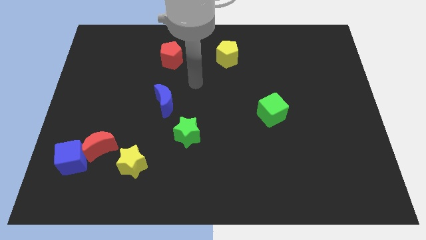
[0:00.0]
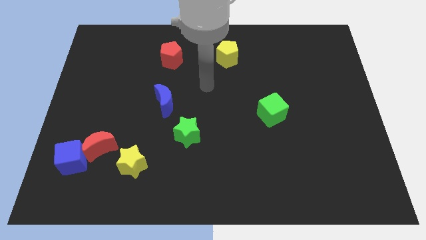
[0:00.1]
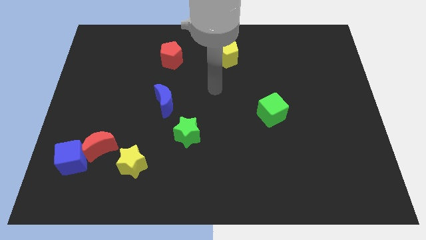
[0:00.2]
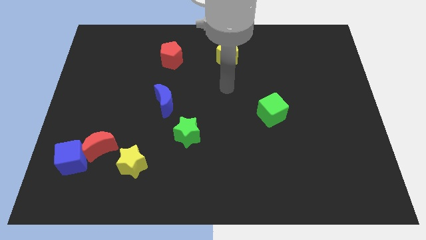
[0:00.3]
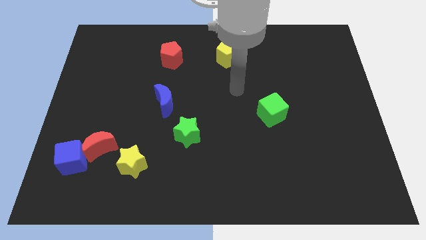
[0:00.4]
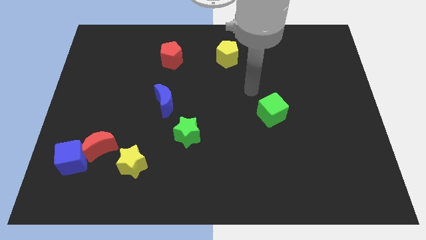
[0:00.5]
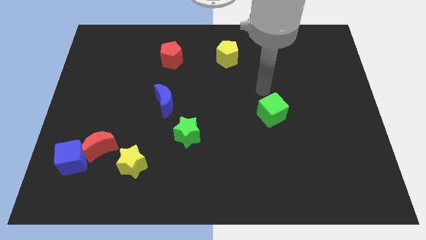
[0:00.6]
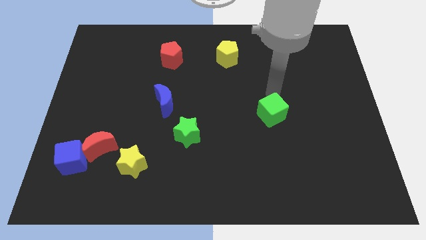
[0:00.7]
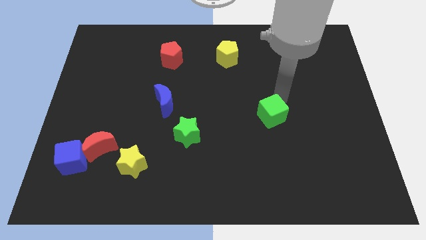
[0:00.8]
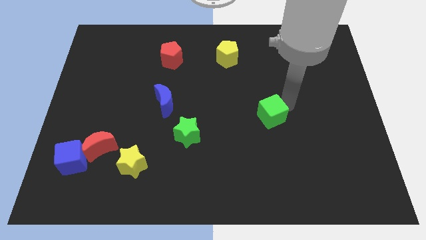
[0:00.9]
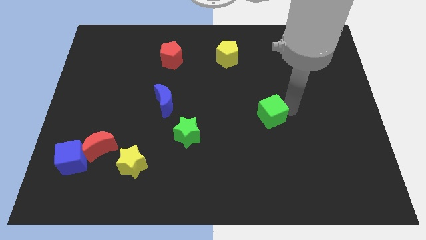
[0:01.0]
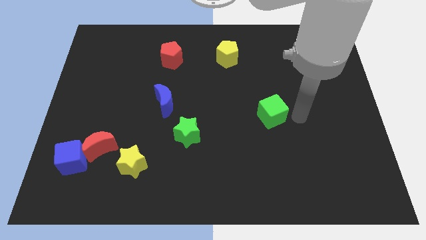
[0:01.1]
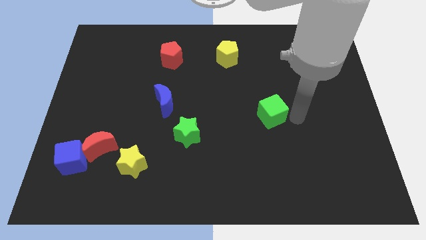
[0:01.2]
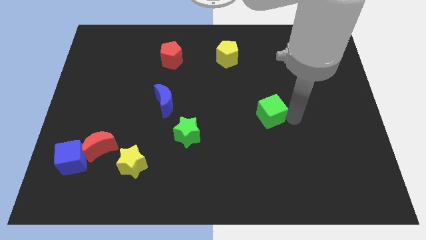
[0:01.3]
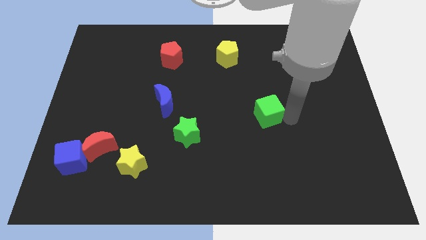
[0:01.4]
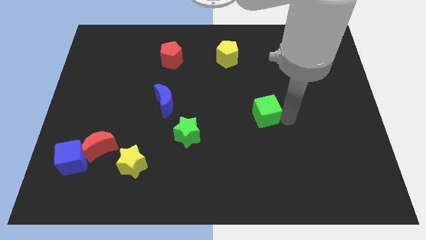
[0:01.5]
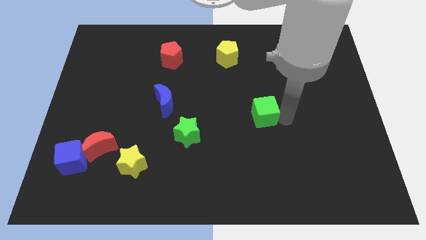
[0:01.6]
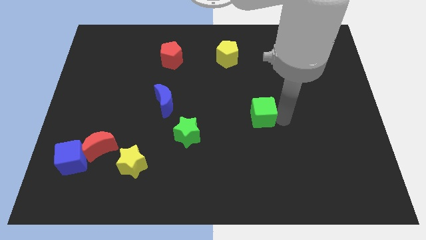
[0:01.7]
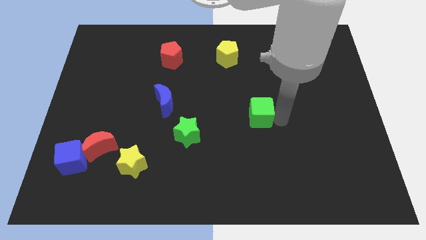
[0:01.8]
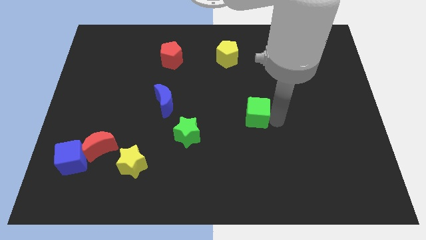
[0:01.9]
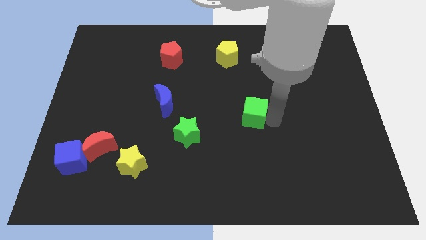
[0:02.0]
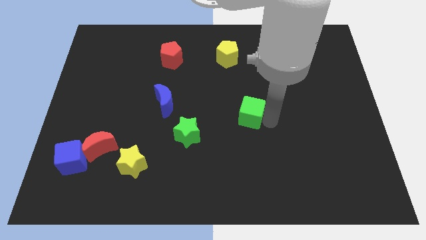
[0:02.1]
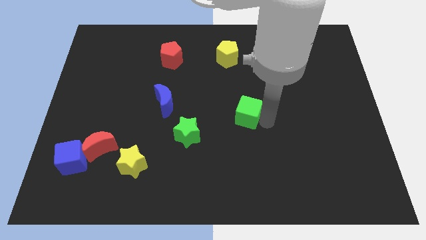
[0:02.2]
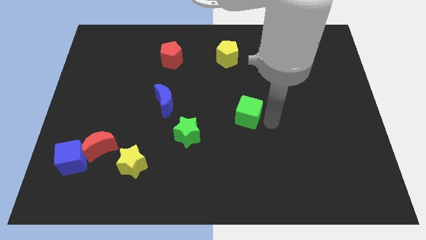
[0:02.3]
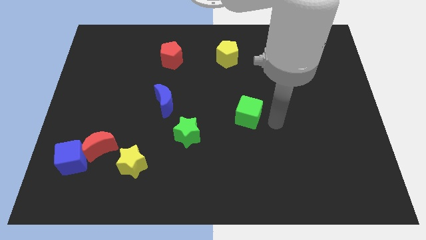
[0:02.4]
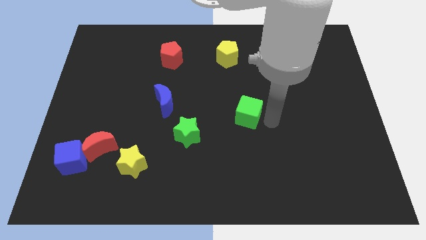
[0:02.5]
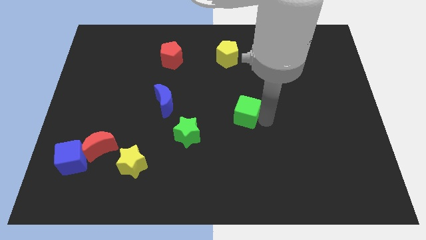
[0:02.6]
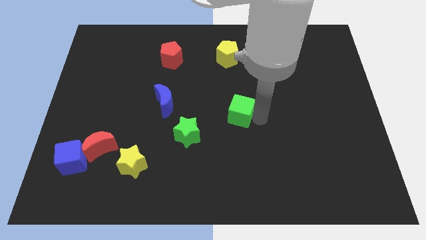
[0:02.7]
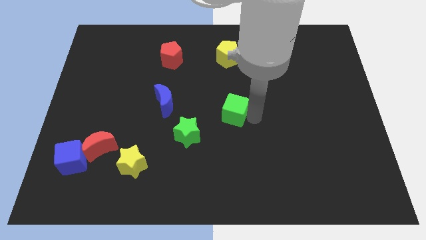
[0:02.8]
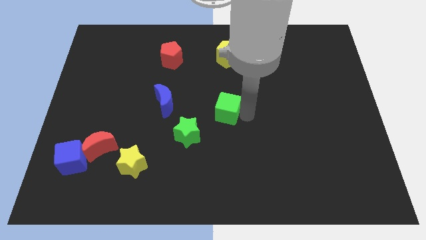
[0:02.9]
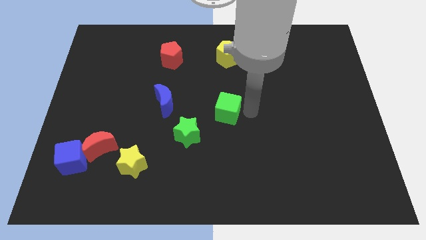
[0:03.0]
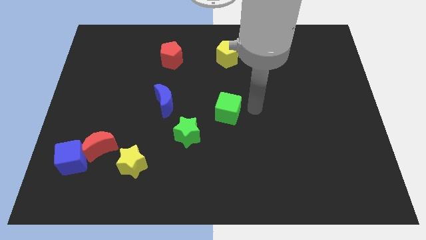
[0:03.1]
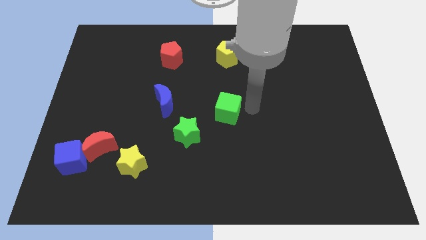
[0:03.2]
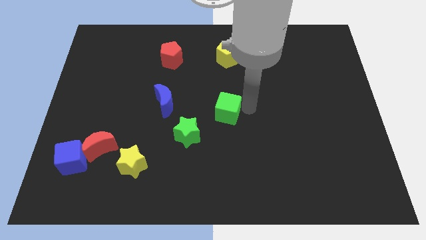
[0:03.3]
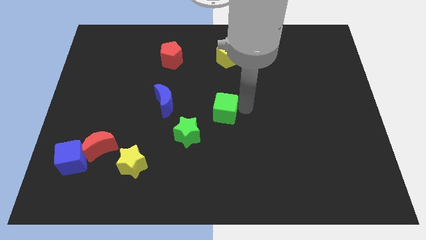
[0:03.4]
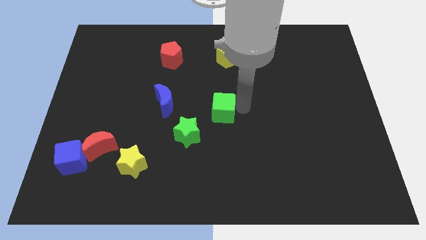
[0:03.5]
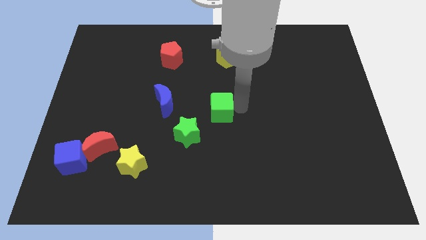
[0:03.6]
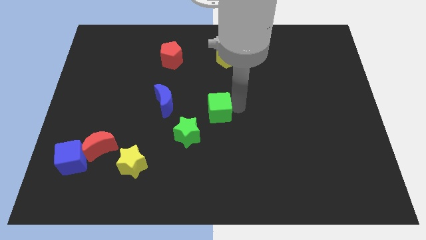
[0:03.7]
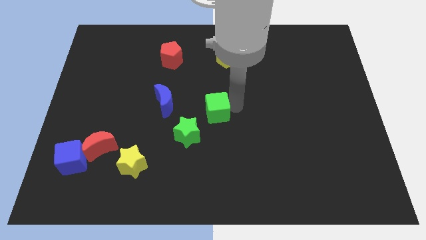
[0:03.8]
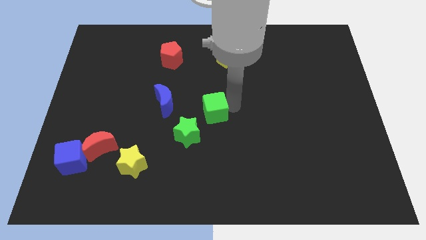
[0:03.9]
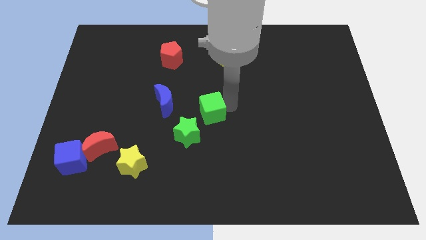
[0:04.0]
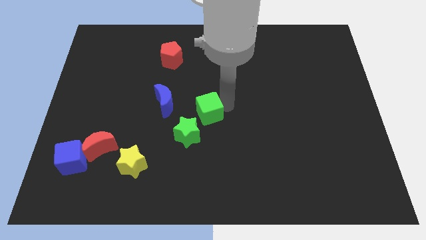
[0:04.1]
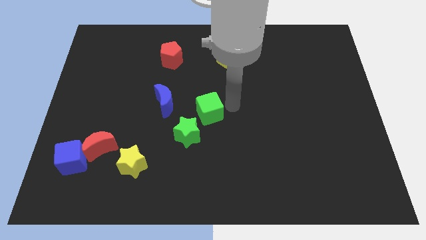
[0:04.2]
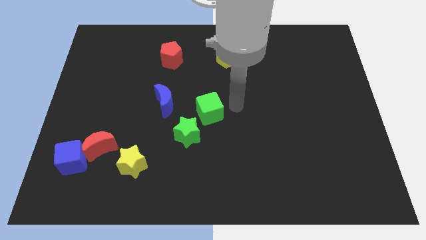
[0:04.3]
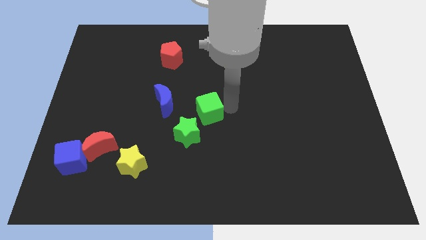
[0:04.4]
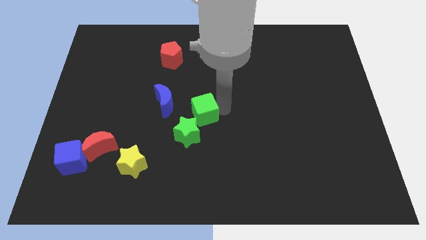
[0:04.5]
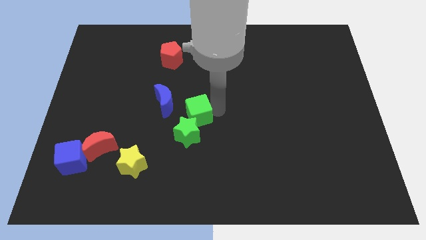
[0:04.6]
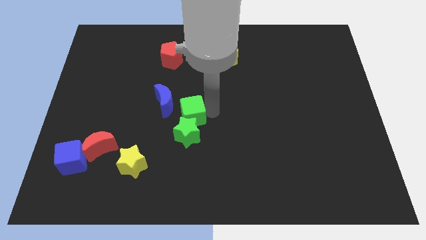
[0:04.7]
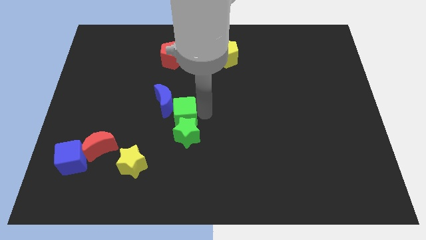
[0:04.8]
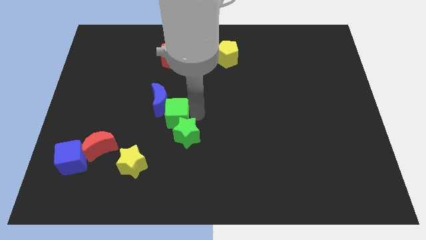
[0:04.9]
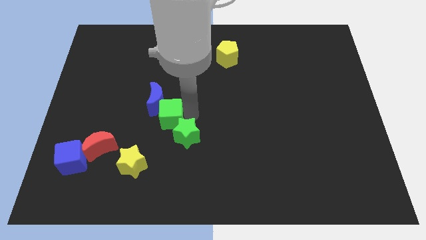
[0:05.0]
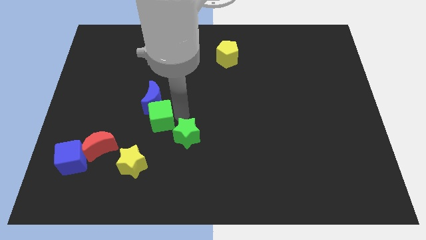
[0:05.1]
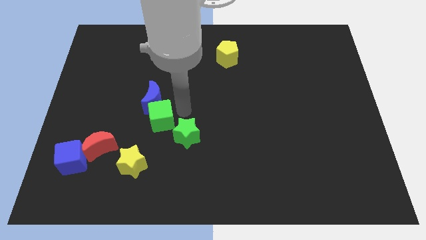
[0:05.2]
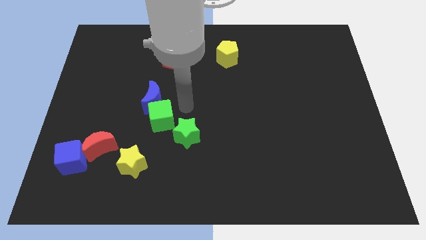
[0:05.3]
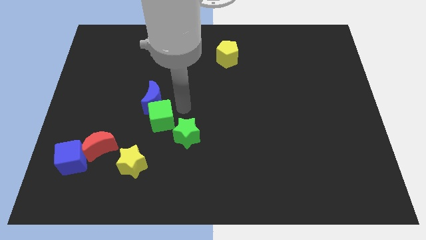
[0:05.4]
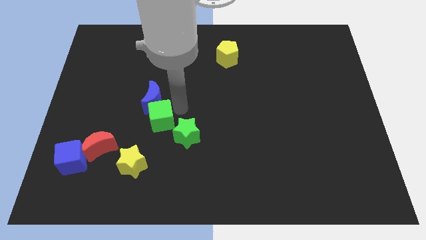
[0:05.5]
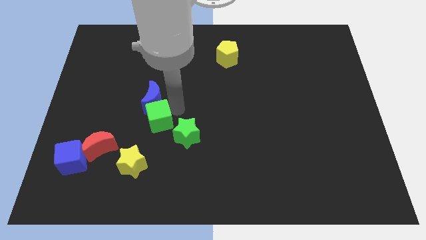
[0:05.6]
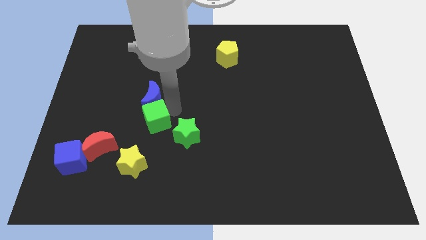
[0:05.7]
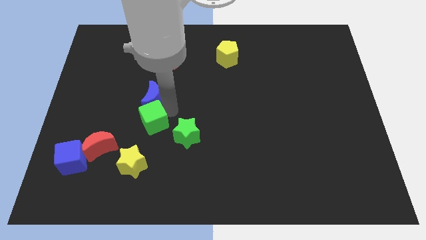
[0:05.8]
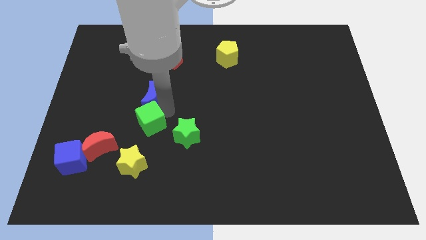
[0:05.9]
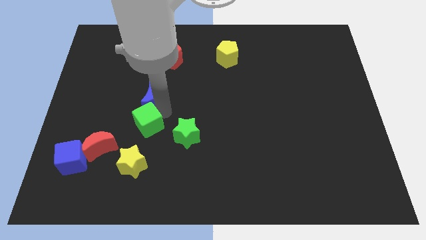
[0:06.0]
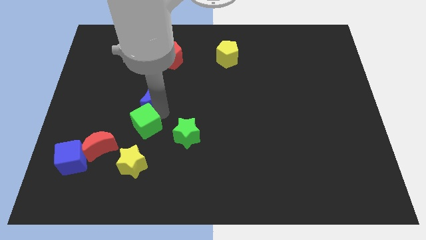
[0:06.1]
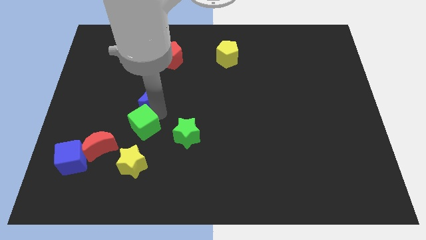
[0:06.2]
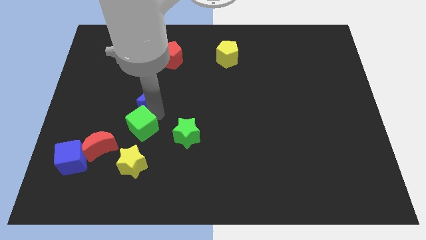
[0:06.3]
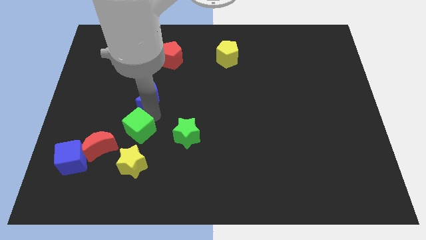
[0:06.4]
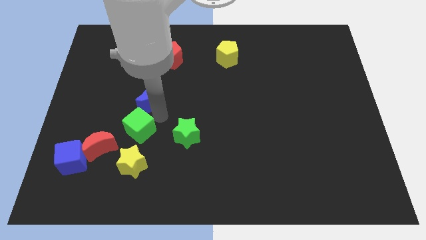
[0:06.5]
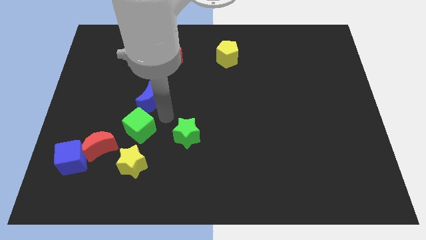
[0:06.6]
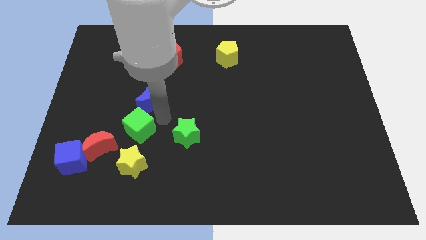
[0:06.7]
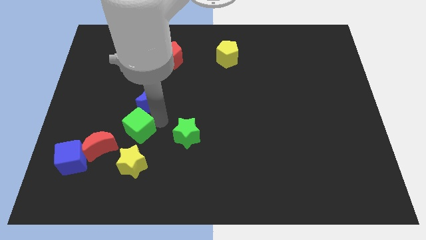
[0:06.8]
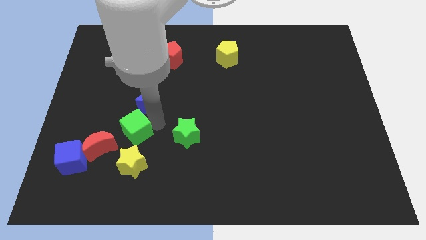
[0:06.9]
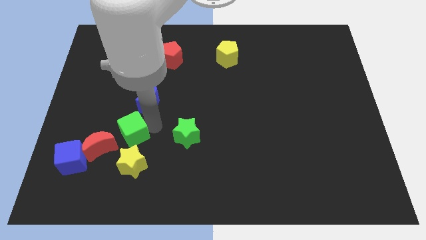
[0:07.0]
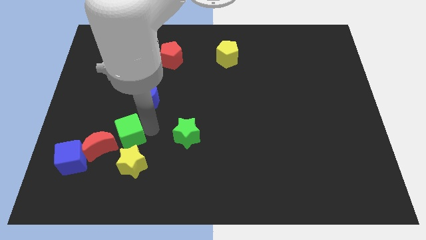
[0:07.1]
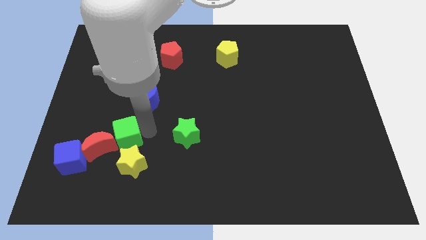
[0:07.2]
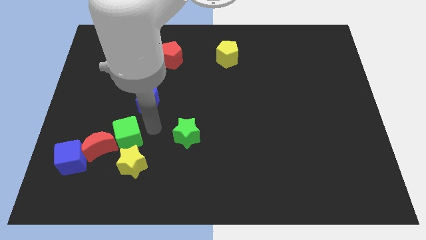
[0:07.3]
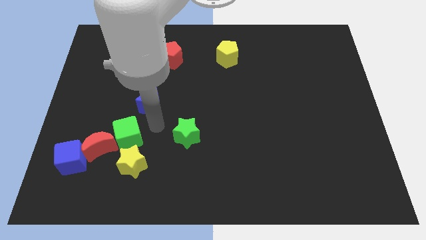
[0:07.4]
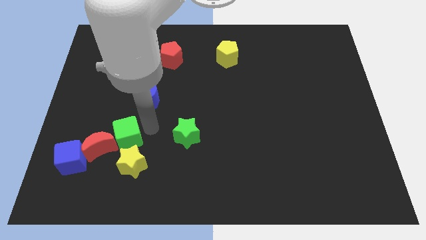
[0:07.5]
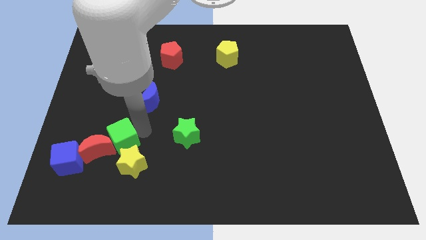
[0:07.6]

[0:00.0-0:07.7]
slide the green cube towards the red moon

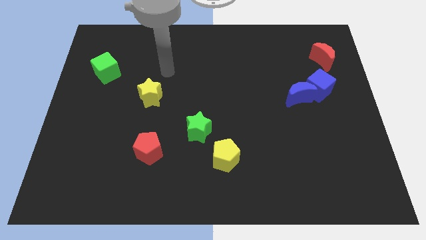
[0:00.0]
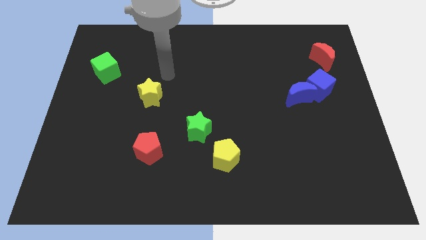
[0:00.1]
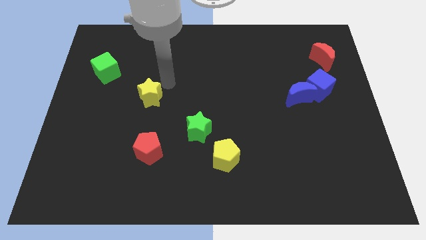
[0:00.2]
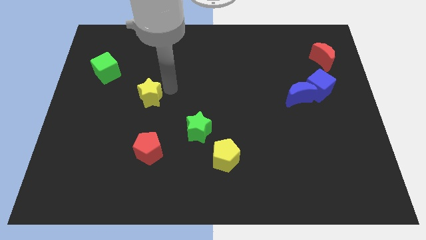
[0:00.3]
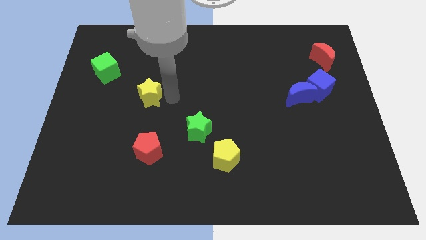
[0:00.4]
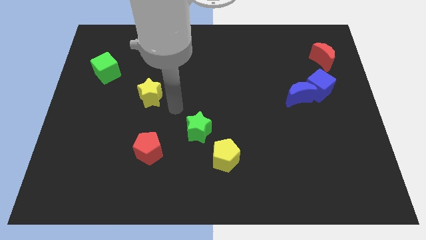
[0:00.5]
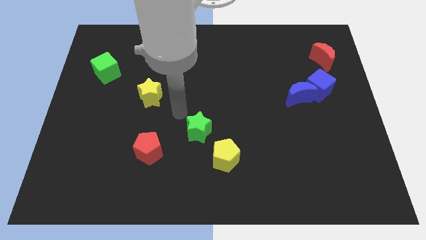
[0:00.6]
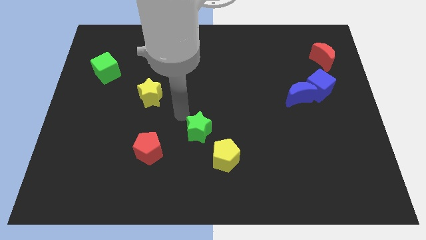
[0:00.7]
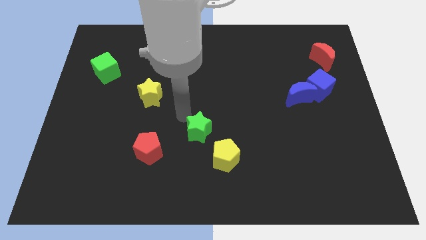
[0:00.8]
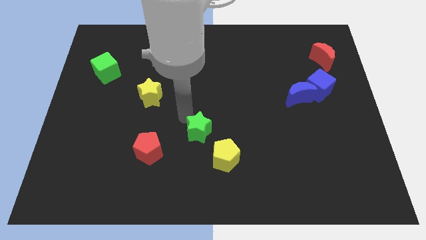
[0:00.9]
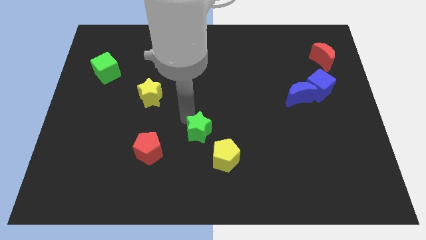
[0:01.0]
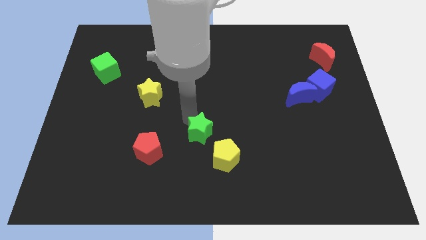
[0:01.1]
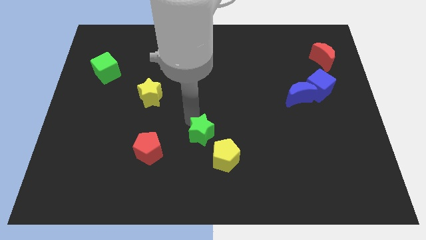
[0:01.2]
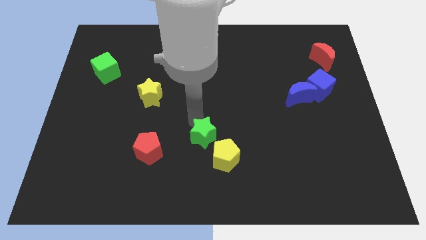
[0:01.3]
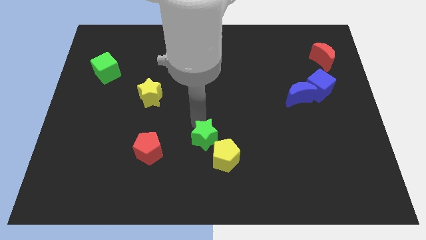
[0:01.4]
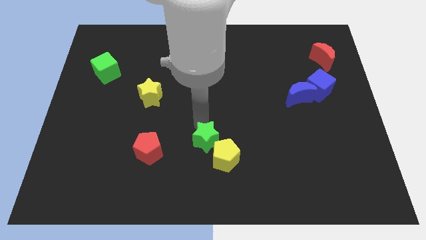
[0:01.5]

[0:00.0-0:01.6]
push the green star close to the yellow pentagon
